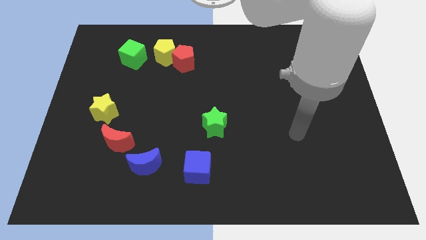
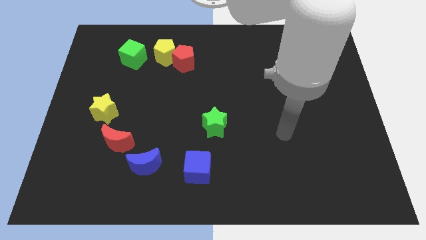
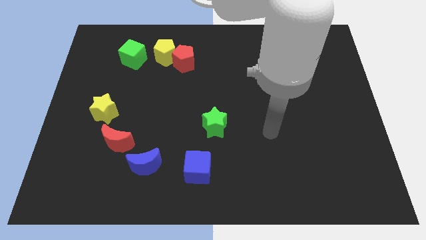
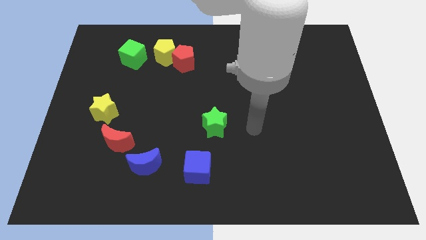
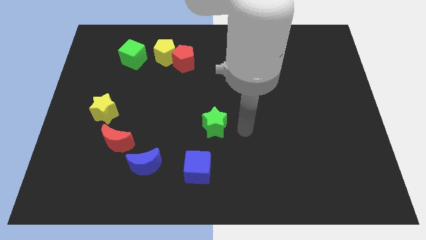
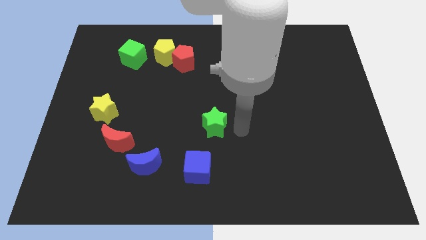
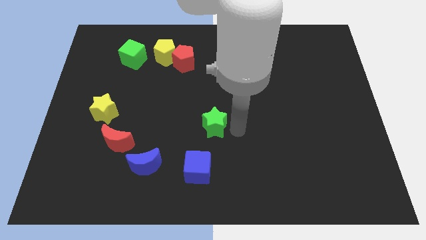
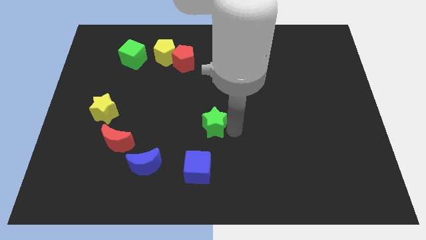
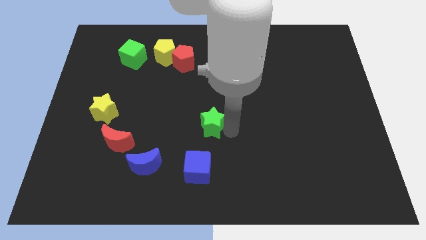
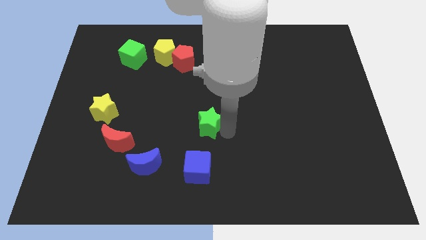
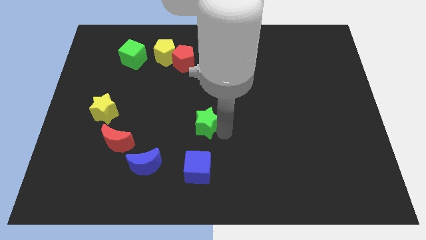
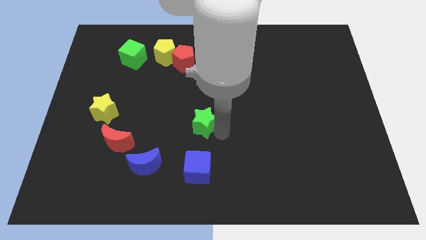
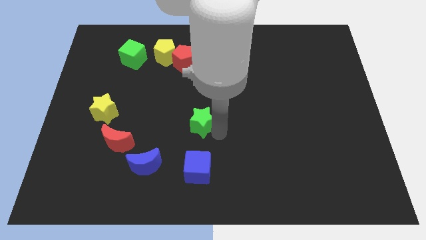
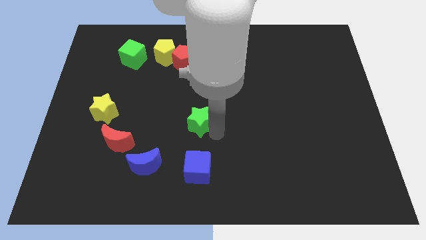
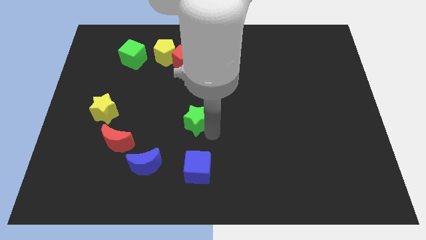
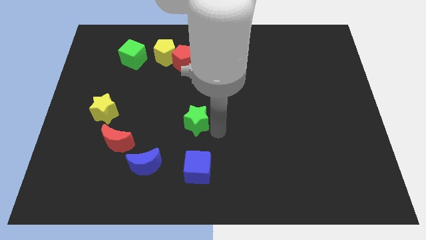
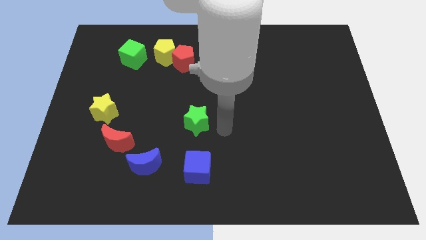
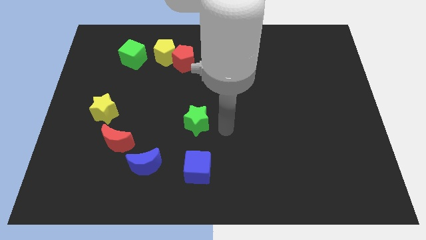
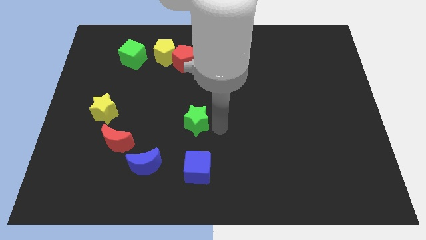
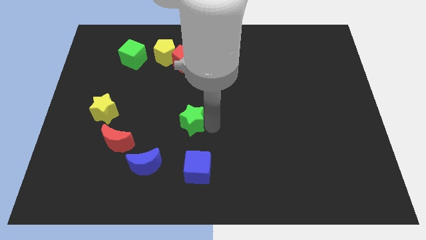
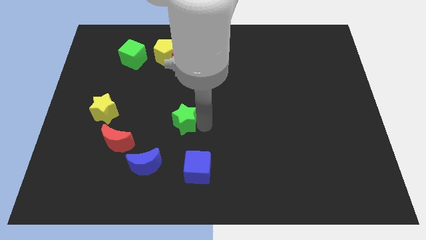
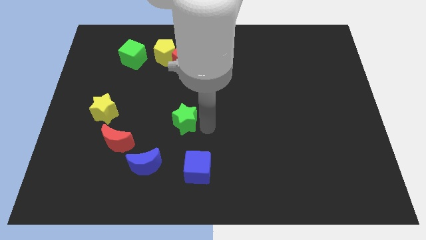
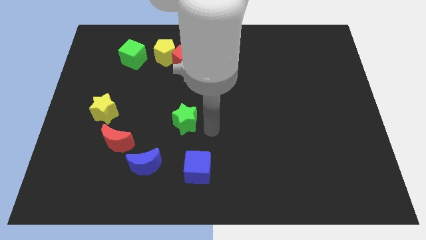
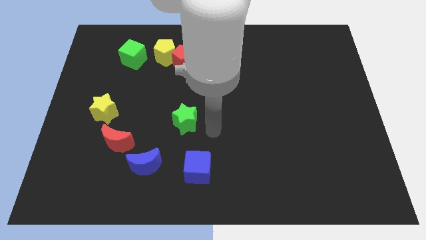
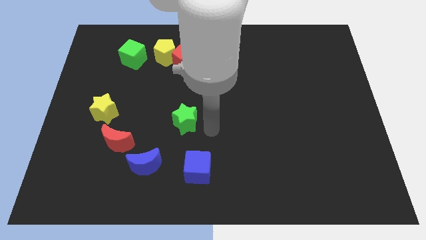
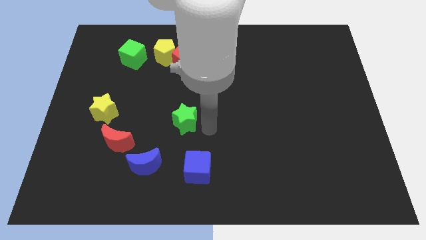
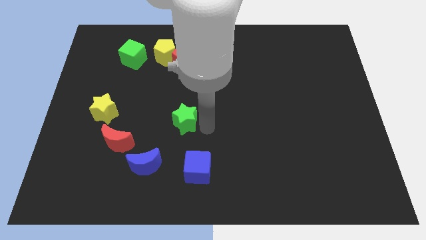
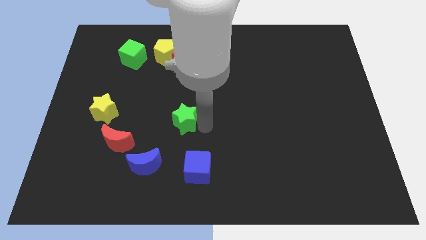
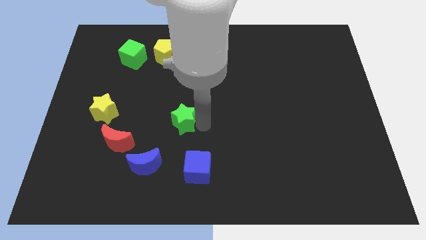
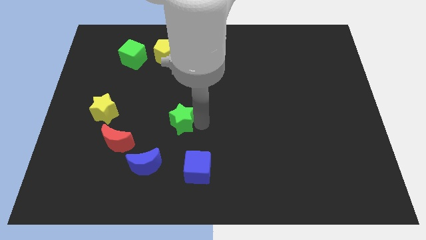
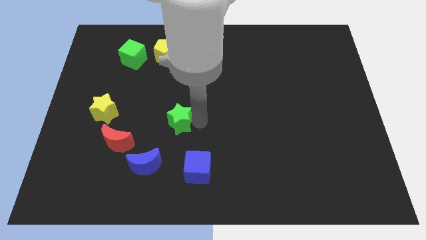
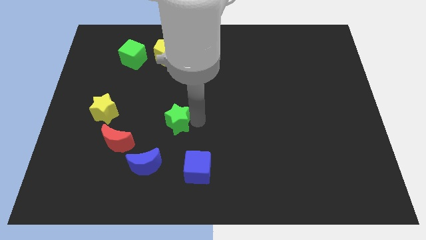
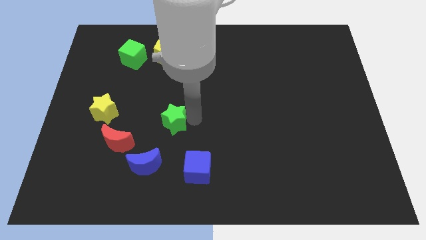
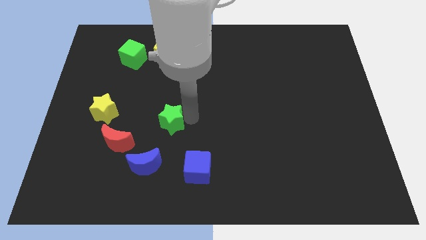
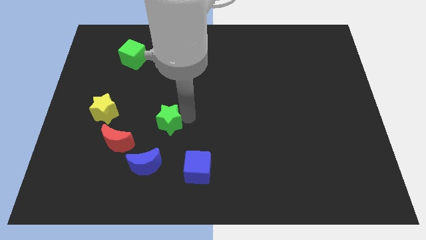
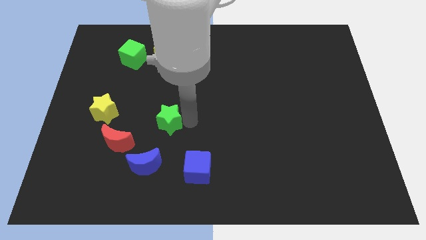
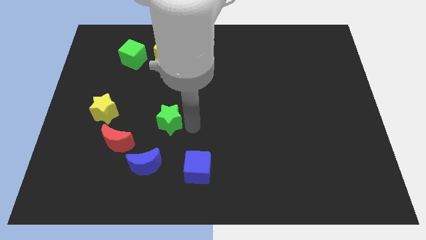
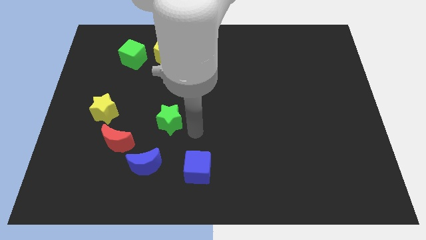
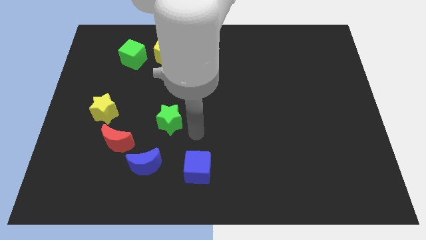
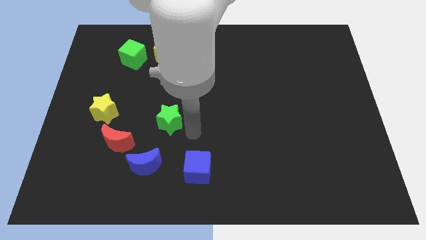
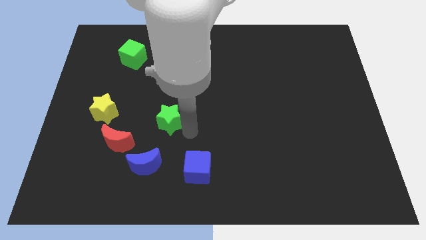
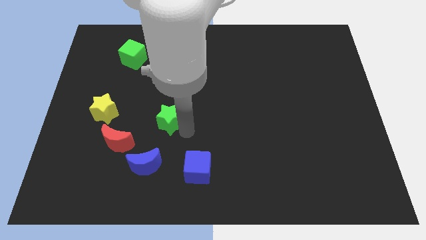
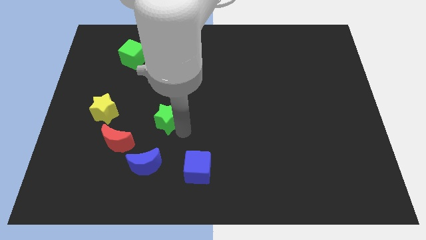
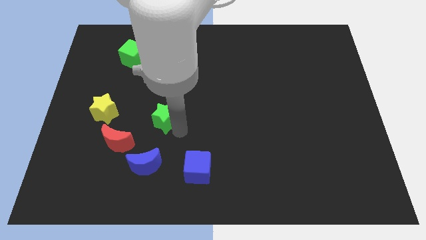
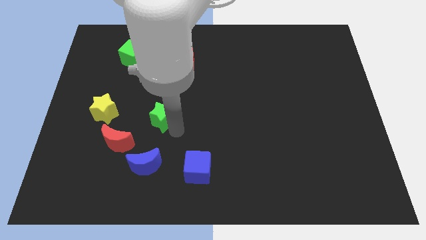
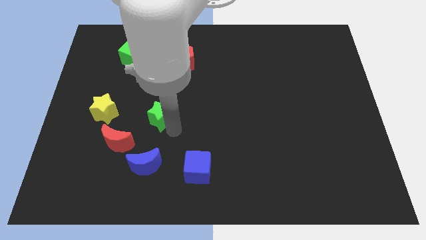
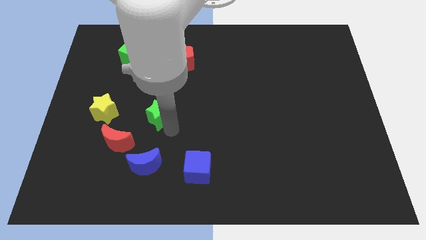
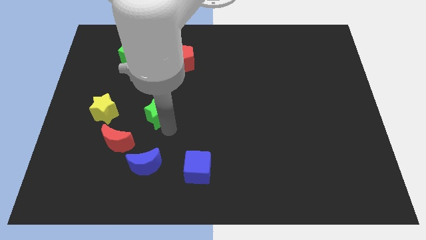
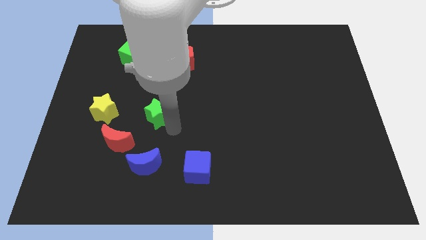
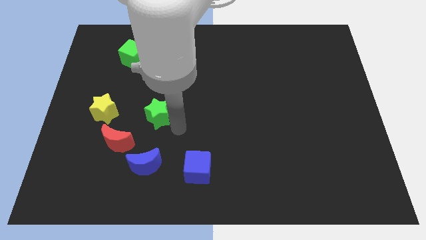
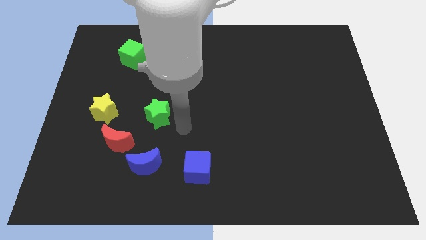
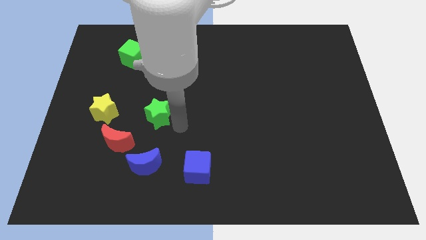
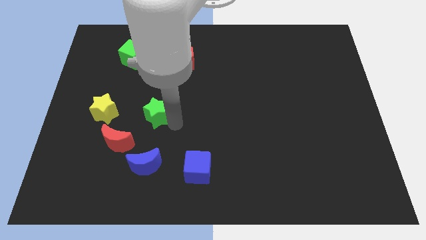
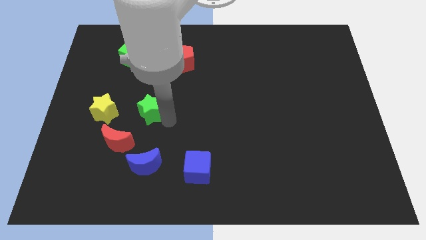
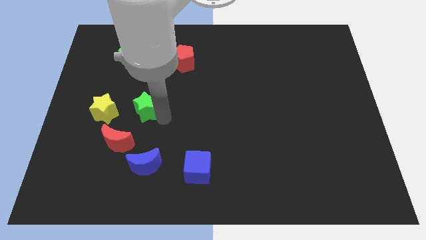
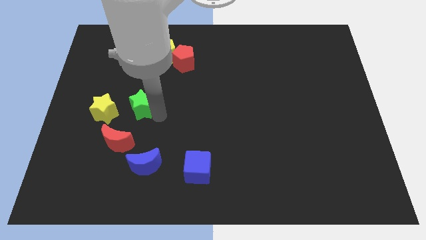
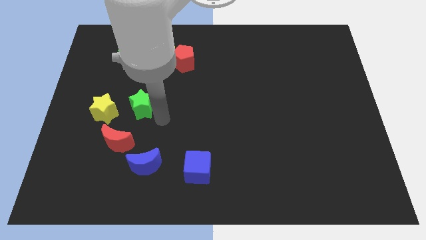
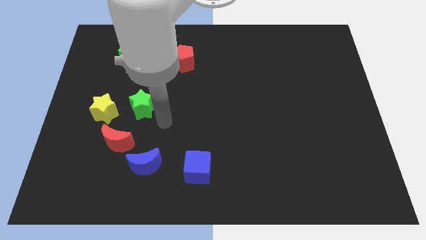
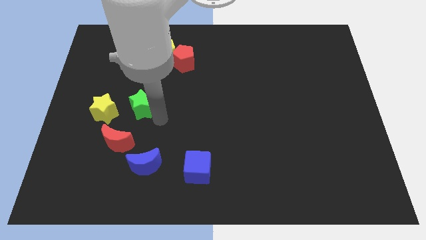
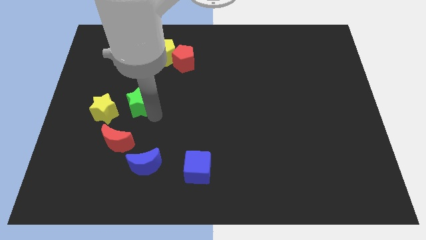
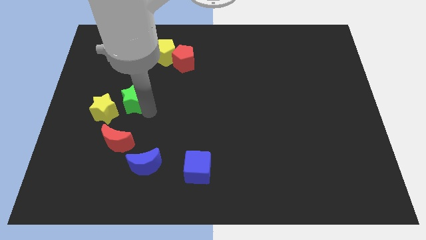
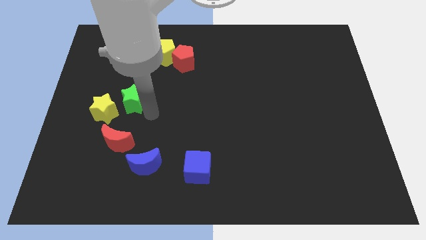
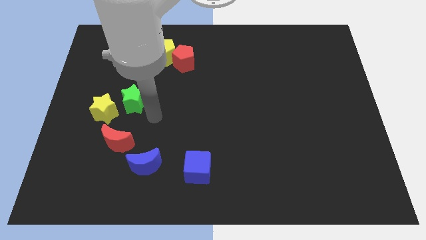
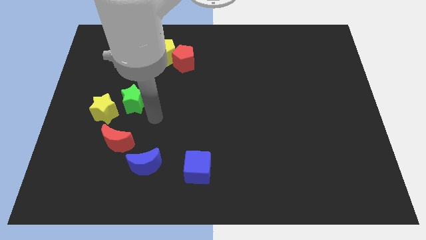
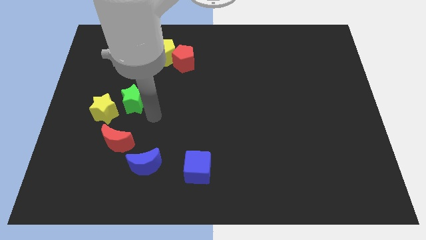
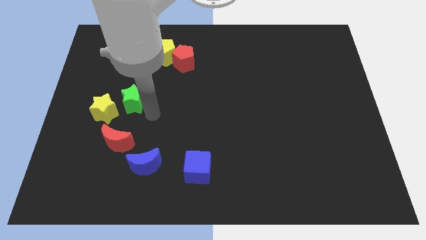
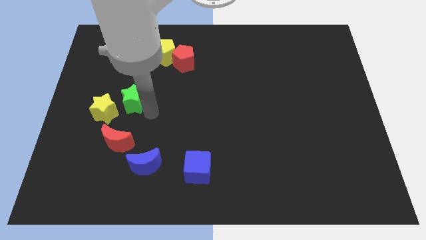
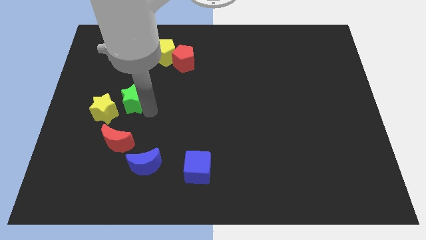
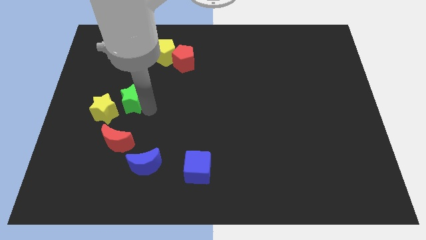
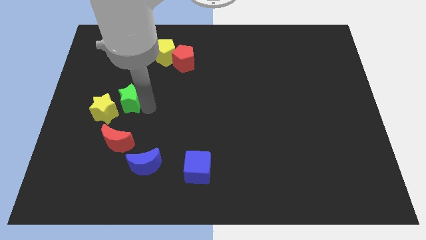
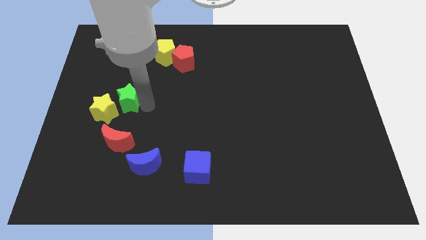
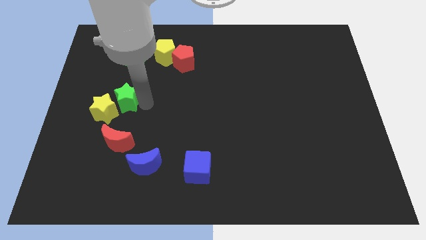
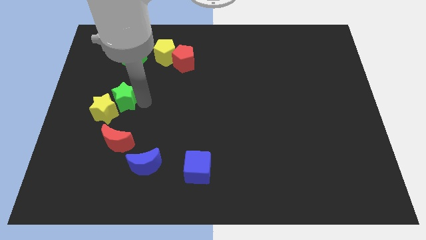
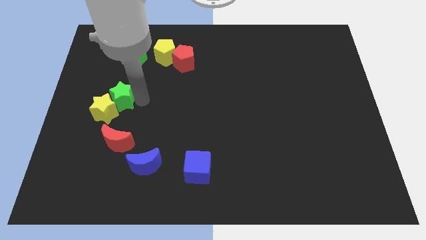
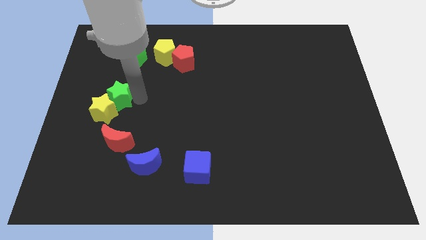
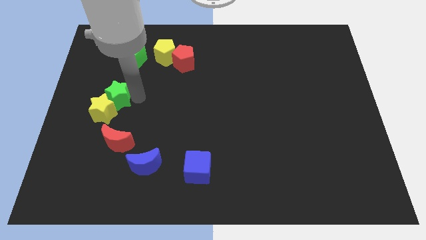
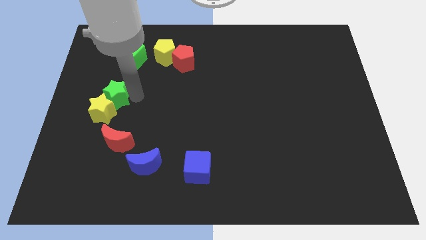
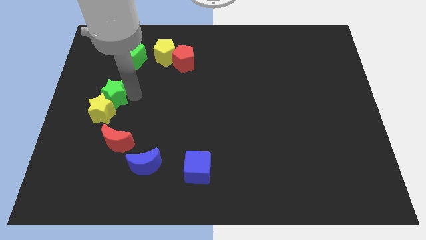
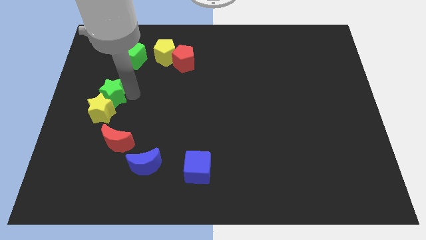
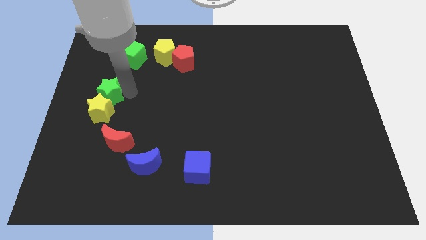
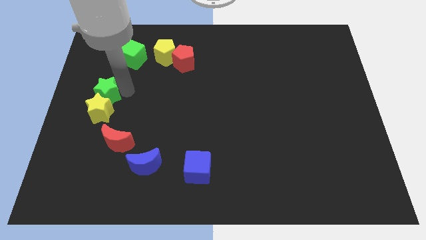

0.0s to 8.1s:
push the green star to the left side
